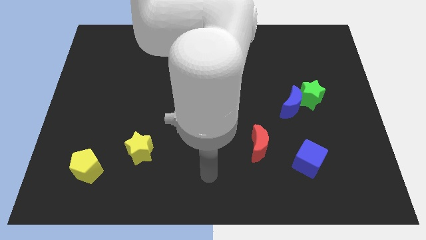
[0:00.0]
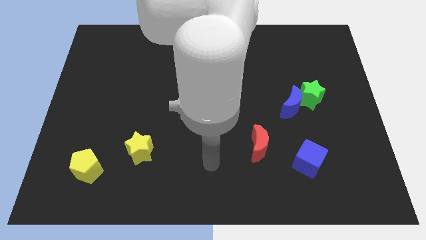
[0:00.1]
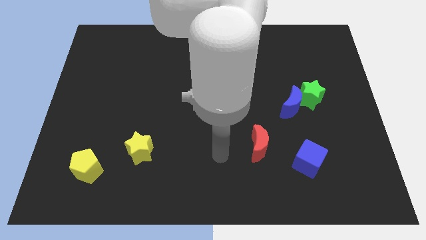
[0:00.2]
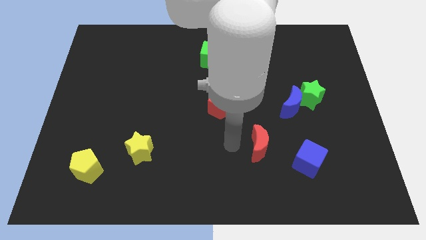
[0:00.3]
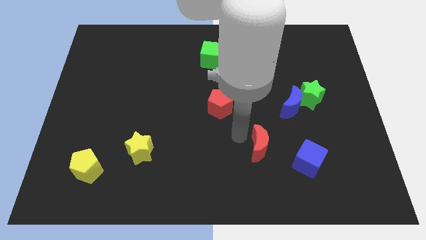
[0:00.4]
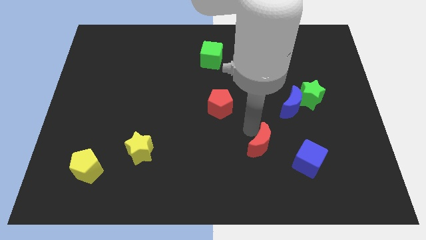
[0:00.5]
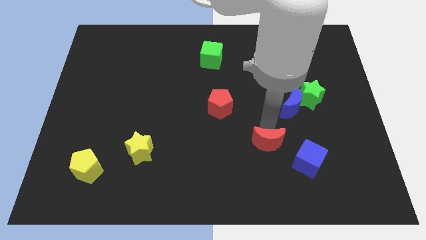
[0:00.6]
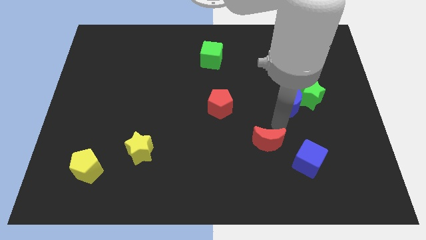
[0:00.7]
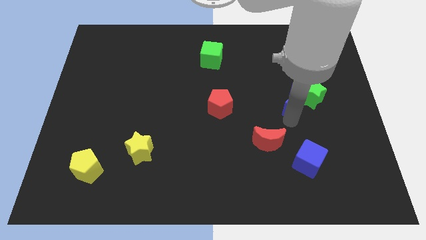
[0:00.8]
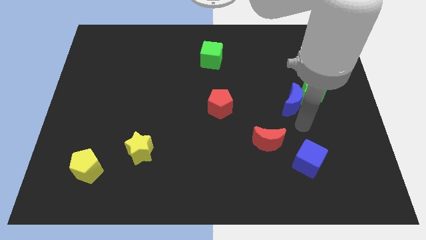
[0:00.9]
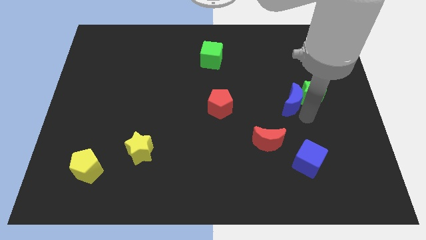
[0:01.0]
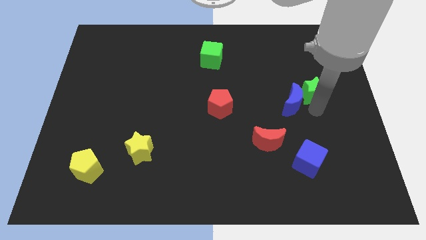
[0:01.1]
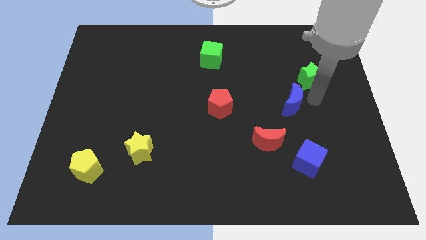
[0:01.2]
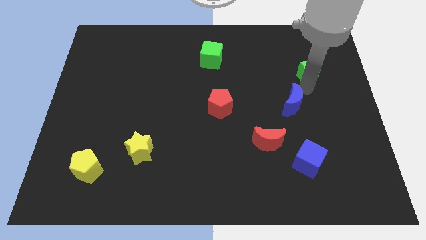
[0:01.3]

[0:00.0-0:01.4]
move the blue moon away from the green star

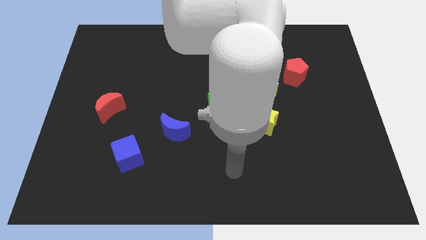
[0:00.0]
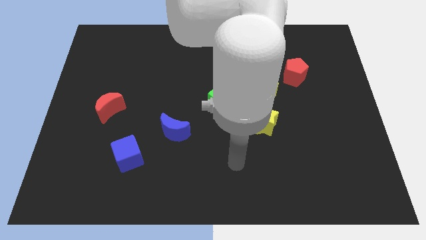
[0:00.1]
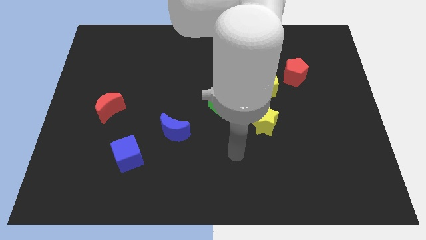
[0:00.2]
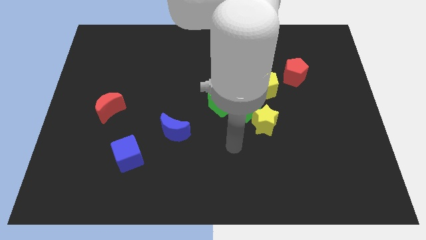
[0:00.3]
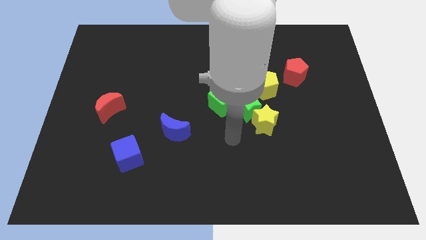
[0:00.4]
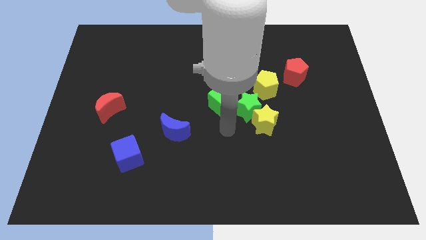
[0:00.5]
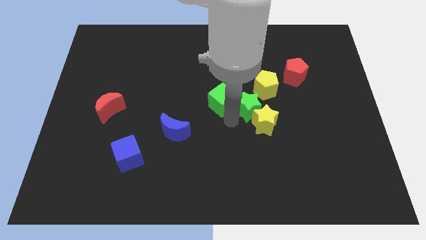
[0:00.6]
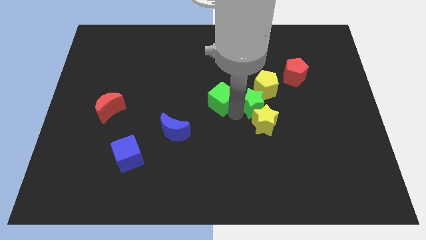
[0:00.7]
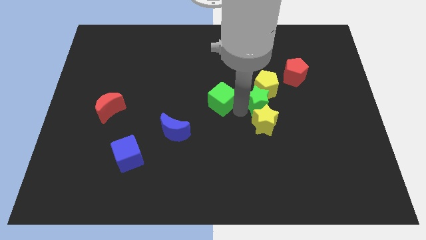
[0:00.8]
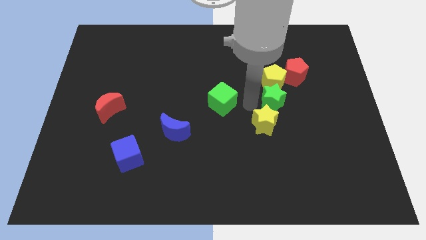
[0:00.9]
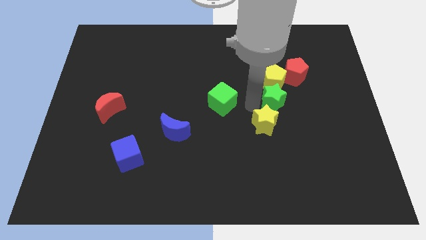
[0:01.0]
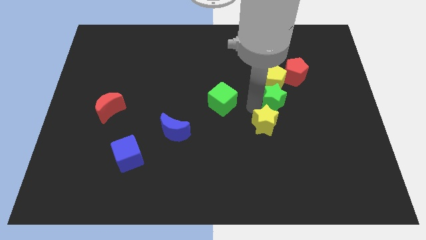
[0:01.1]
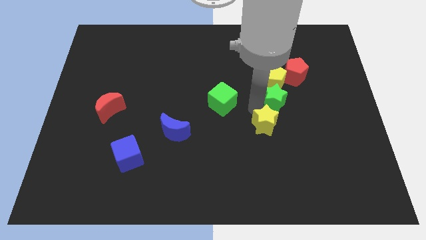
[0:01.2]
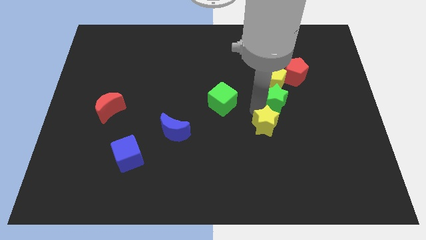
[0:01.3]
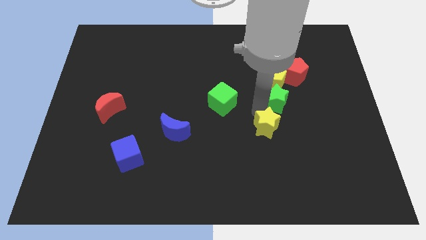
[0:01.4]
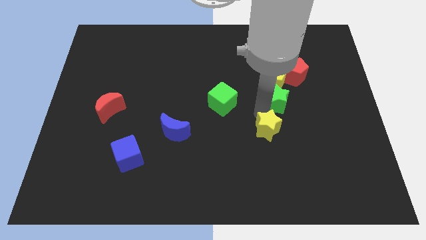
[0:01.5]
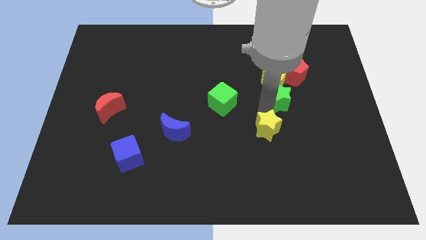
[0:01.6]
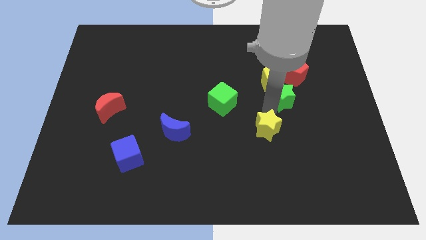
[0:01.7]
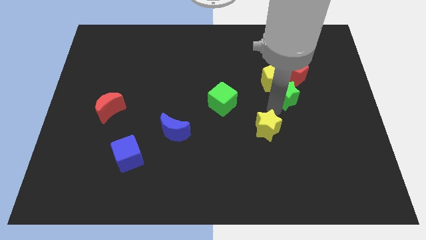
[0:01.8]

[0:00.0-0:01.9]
separate the yellow star from the green star

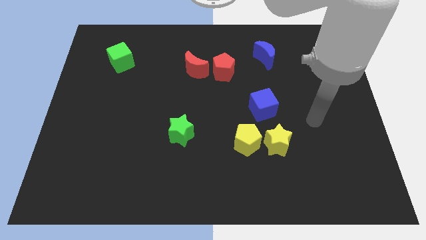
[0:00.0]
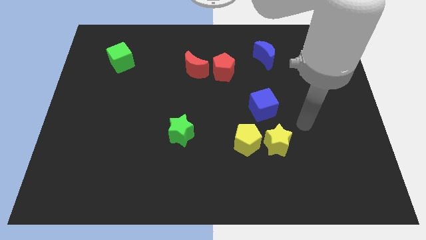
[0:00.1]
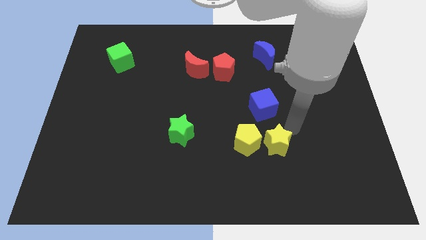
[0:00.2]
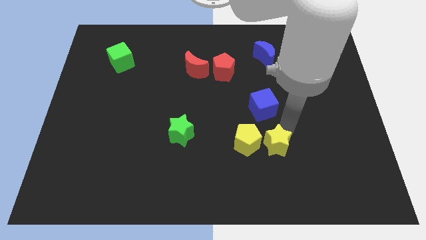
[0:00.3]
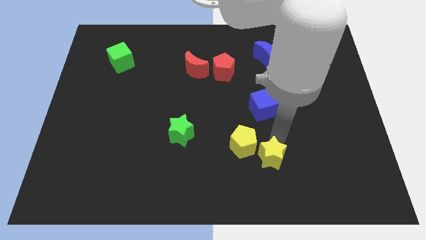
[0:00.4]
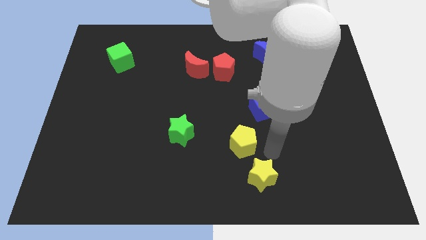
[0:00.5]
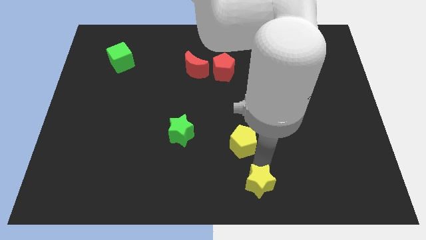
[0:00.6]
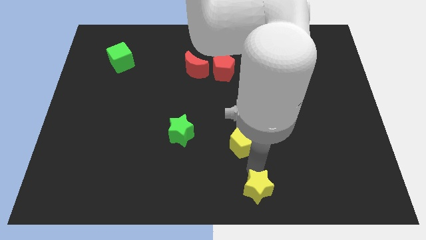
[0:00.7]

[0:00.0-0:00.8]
separate the yellow pentagon from the yellow star

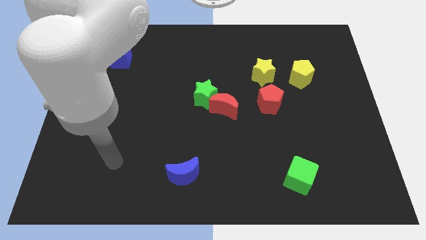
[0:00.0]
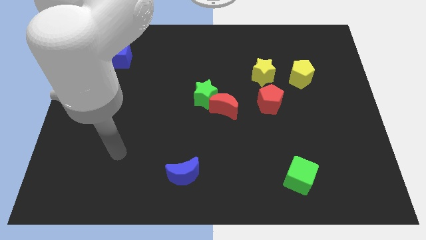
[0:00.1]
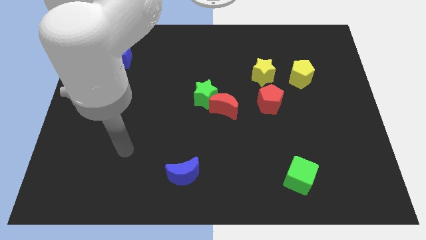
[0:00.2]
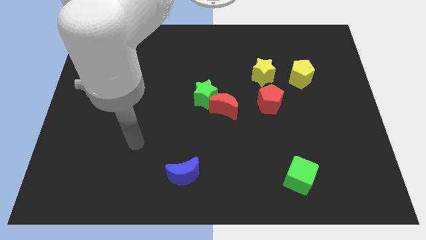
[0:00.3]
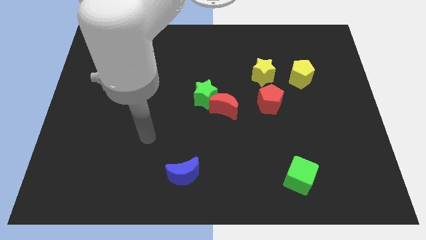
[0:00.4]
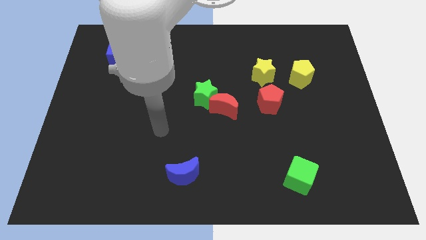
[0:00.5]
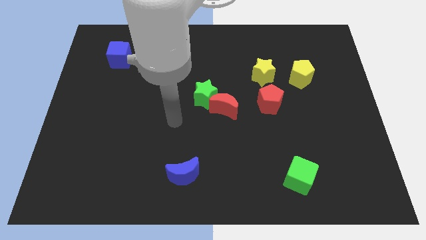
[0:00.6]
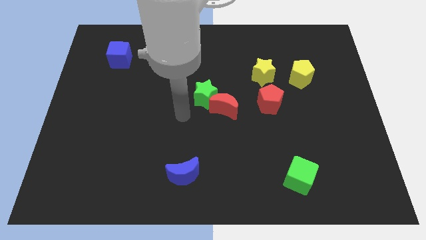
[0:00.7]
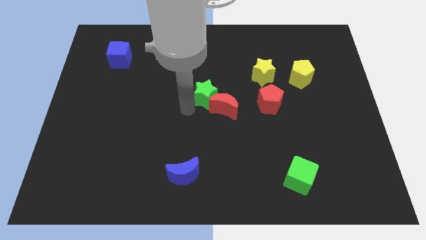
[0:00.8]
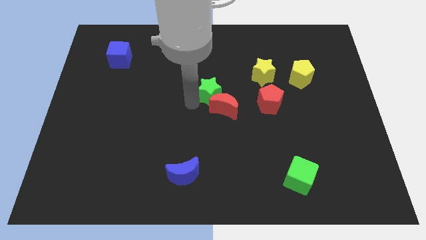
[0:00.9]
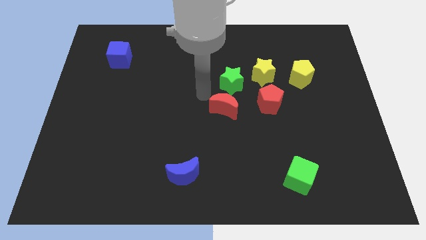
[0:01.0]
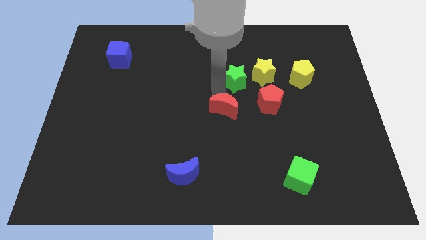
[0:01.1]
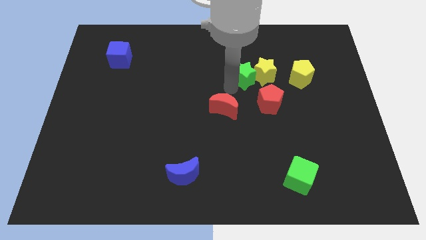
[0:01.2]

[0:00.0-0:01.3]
move the red moon away from the green star

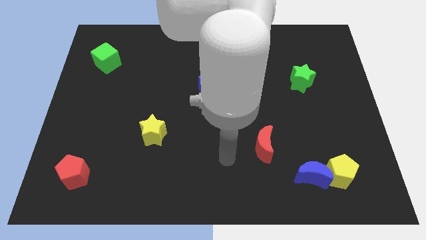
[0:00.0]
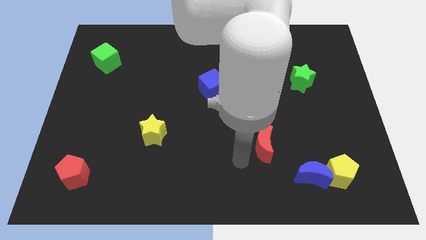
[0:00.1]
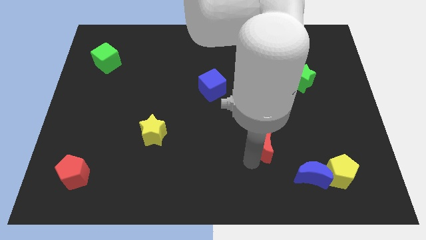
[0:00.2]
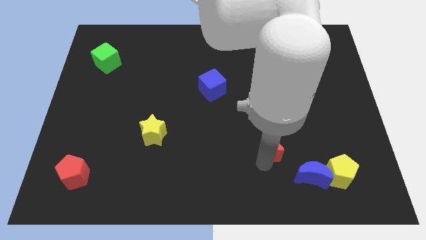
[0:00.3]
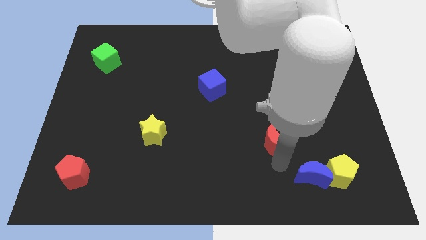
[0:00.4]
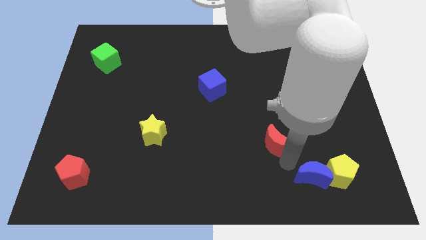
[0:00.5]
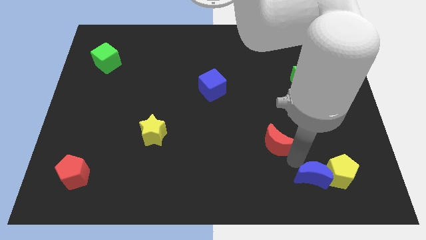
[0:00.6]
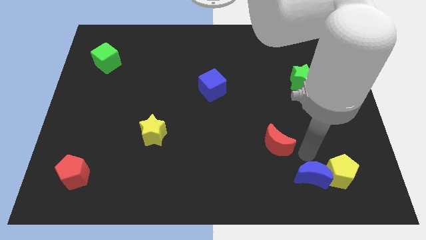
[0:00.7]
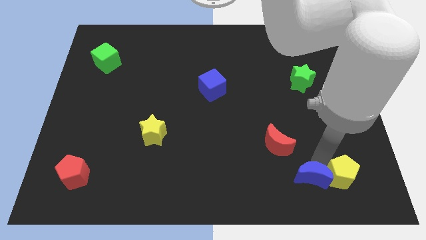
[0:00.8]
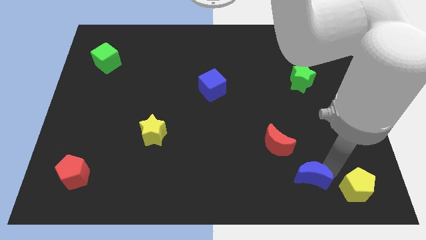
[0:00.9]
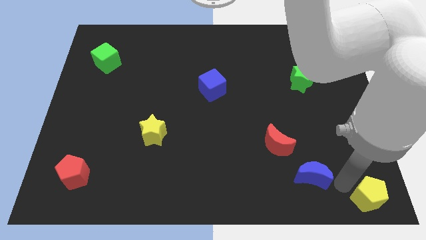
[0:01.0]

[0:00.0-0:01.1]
separate the blue moon from the yellow pentagon

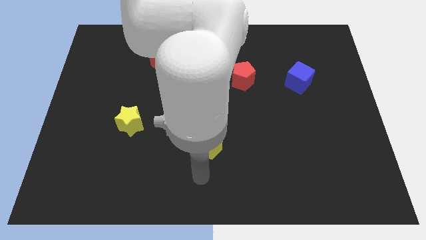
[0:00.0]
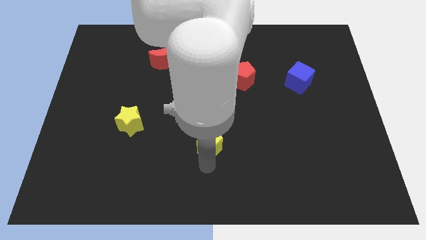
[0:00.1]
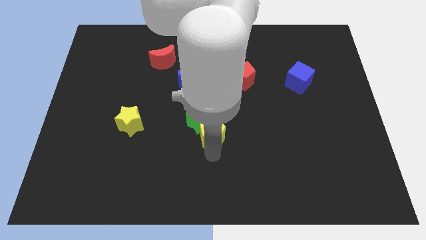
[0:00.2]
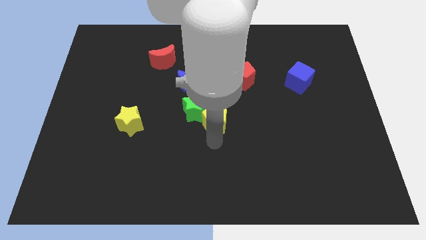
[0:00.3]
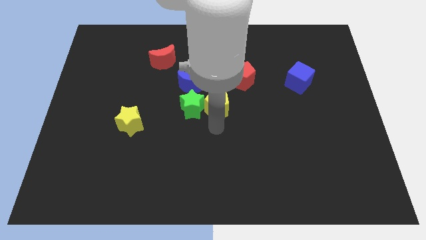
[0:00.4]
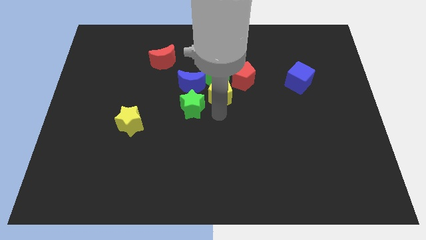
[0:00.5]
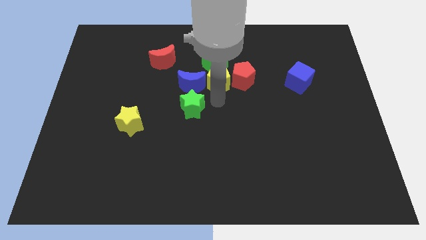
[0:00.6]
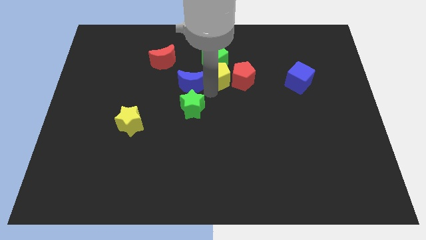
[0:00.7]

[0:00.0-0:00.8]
pull the green star apart from the yellow pentagon

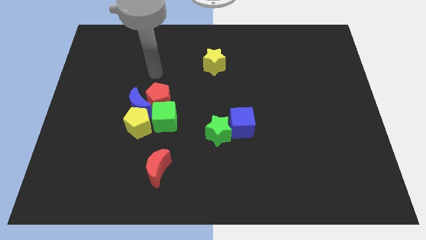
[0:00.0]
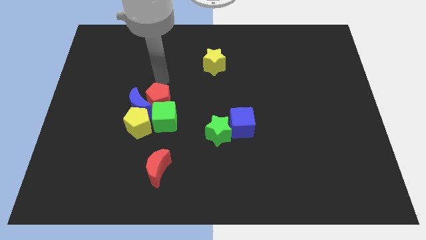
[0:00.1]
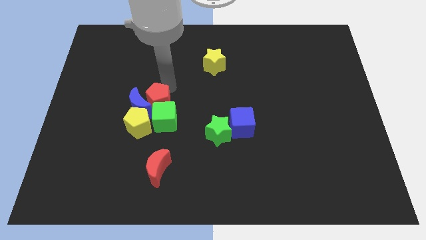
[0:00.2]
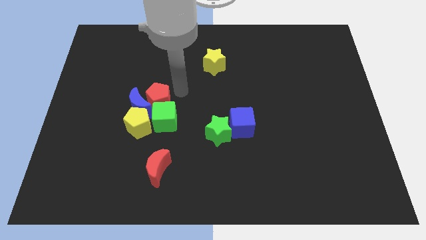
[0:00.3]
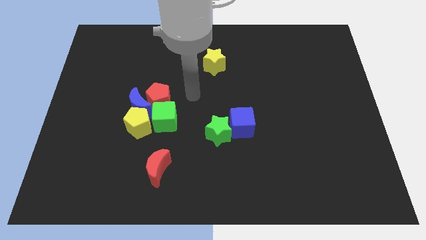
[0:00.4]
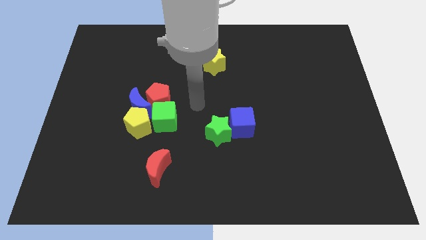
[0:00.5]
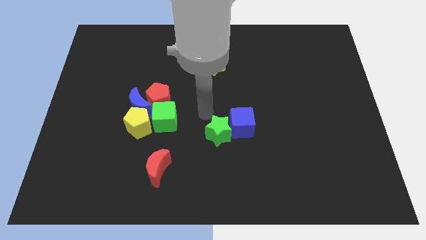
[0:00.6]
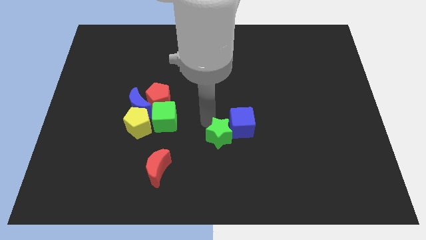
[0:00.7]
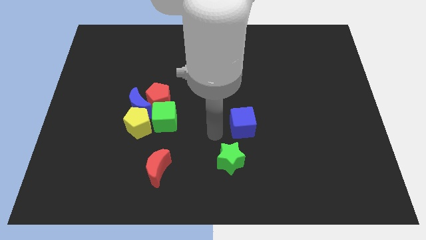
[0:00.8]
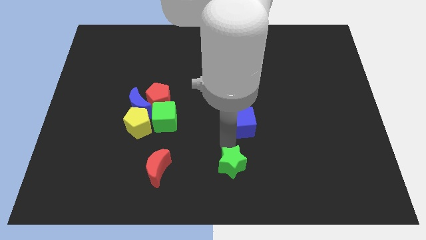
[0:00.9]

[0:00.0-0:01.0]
move the blue cube away from the green star

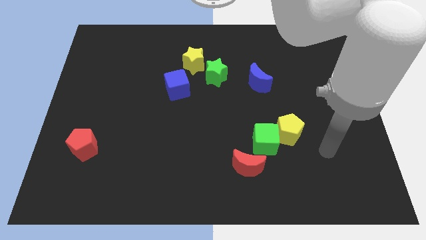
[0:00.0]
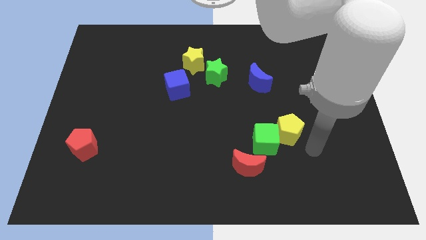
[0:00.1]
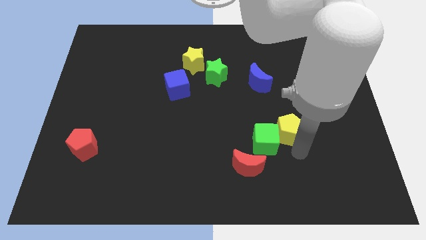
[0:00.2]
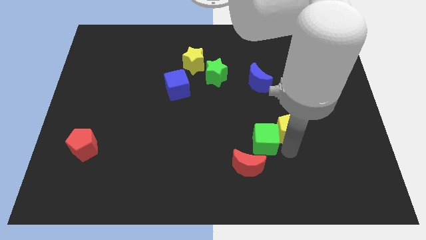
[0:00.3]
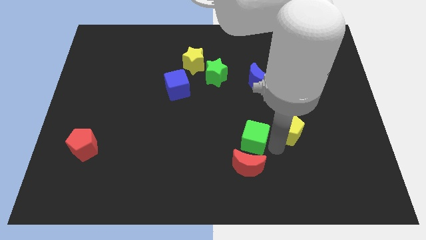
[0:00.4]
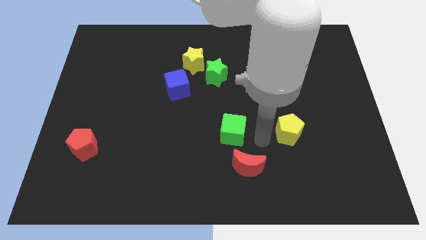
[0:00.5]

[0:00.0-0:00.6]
move the yellow pentagon away from the green cube

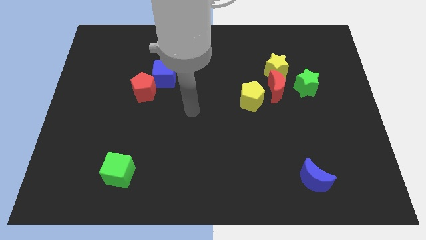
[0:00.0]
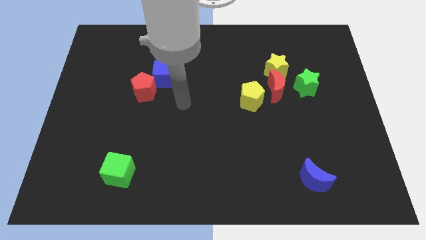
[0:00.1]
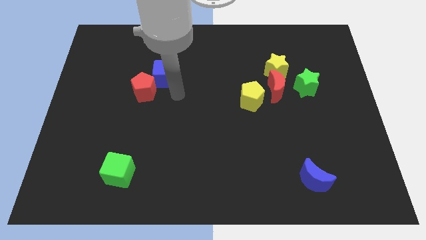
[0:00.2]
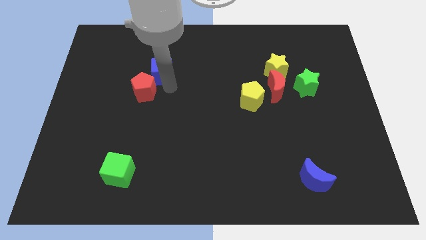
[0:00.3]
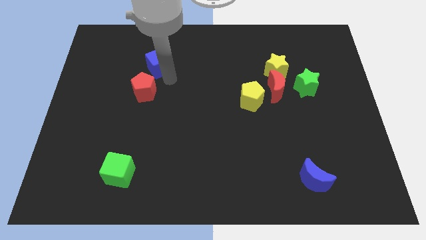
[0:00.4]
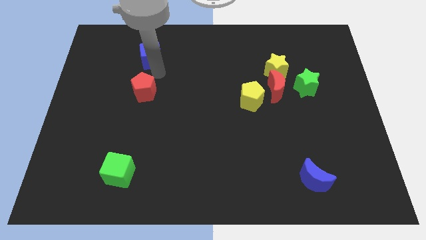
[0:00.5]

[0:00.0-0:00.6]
separate the red pentagon from the blue cube
